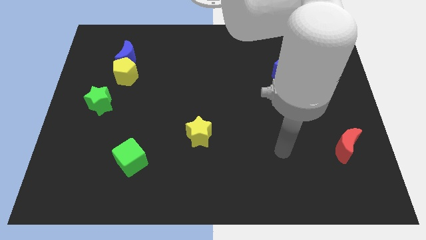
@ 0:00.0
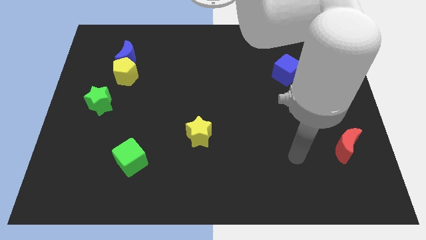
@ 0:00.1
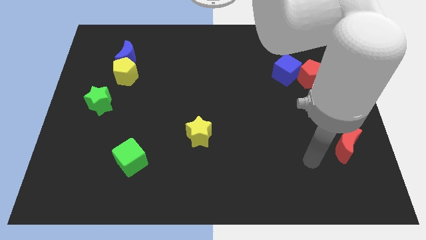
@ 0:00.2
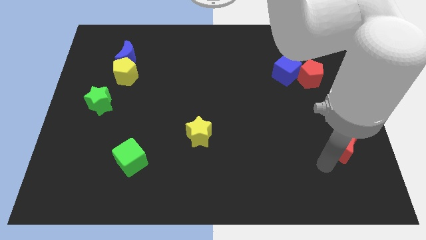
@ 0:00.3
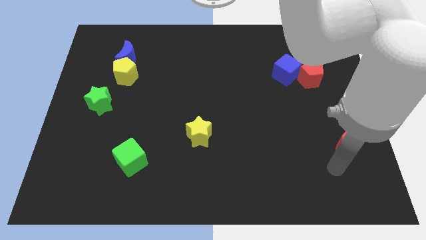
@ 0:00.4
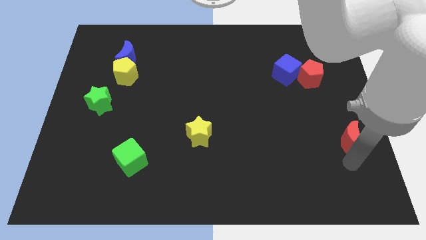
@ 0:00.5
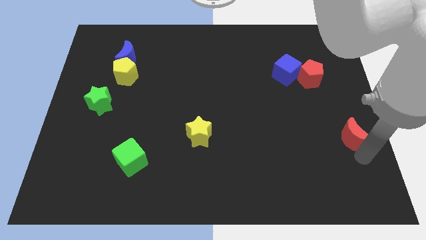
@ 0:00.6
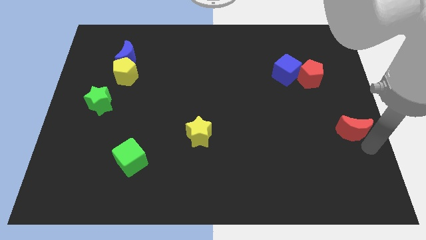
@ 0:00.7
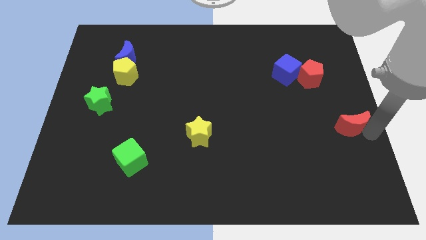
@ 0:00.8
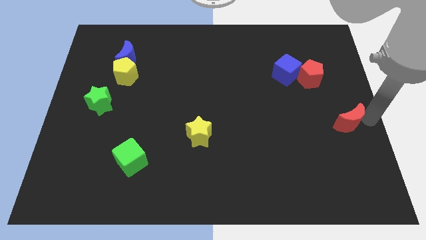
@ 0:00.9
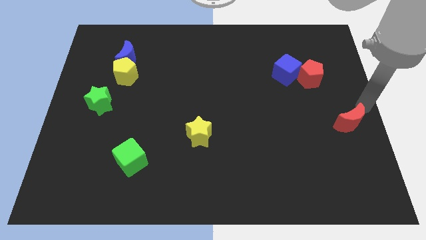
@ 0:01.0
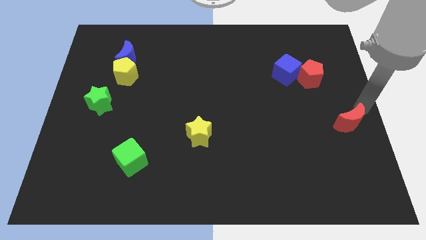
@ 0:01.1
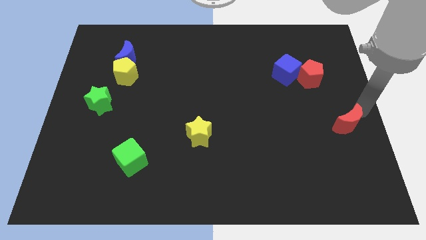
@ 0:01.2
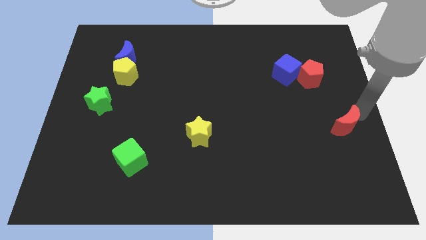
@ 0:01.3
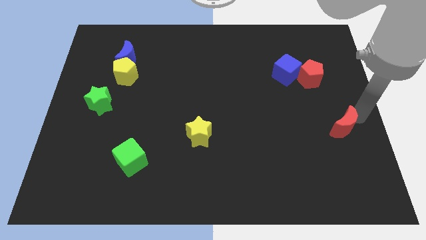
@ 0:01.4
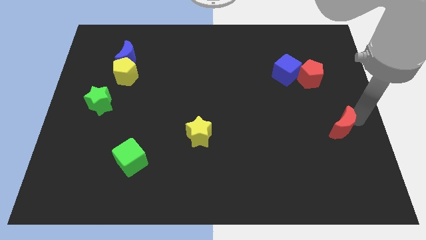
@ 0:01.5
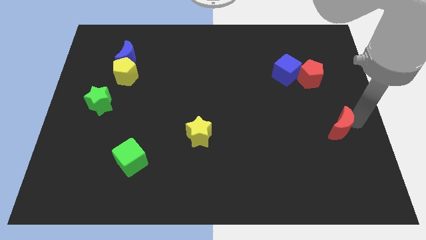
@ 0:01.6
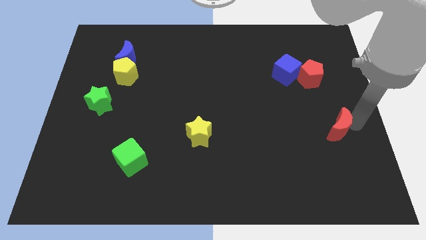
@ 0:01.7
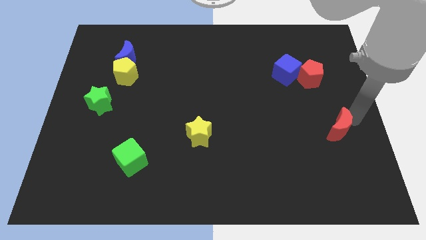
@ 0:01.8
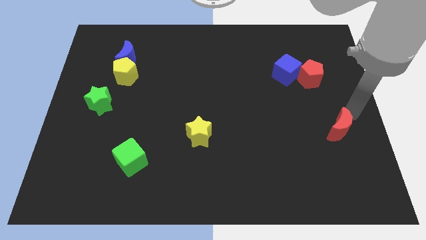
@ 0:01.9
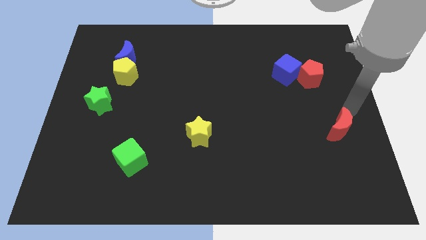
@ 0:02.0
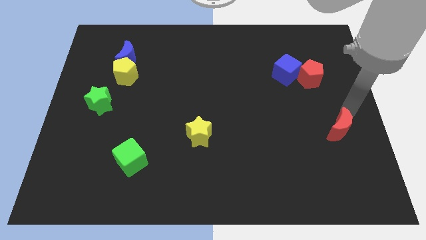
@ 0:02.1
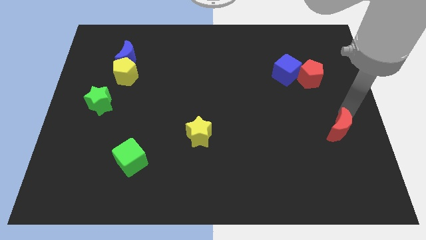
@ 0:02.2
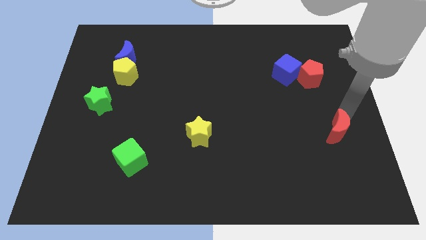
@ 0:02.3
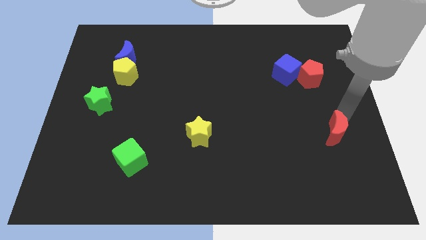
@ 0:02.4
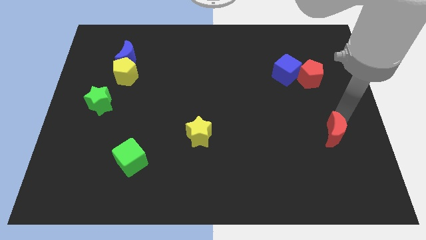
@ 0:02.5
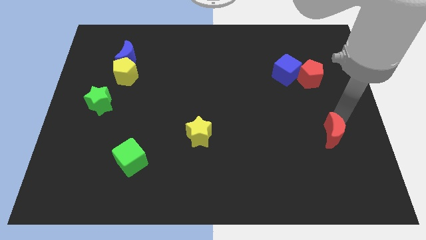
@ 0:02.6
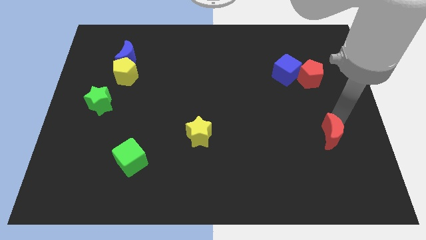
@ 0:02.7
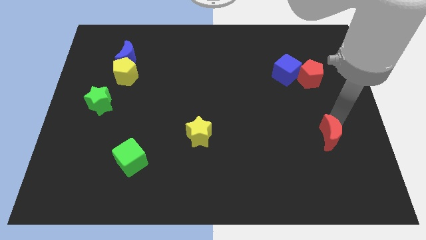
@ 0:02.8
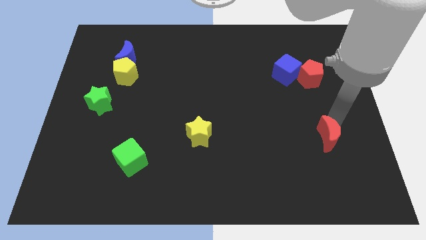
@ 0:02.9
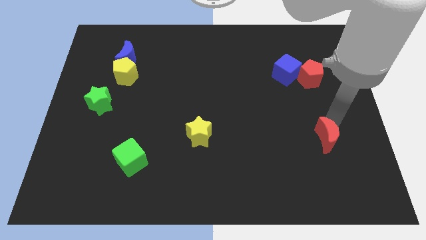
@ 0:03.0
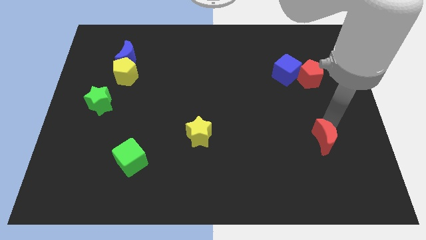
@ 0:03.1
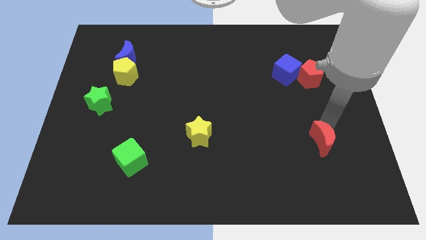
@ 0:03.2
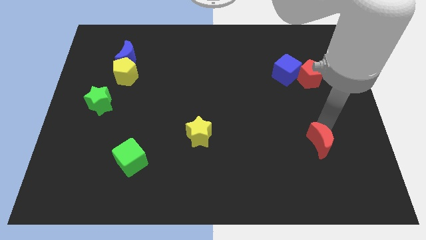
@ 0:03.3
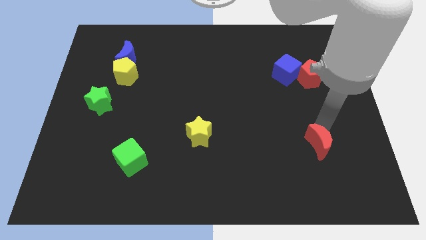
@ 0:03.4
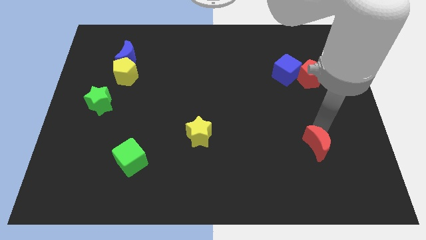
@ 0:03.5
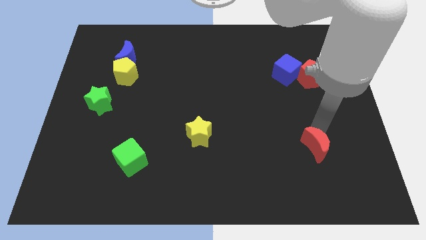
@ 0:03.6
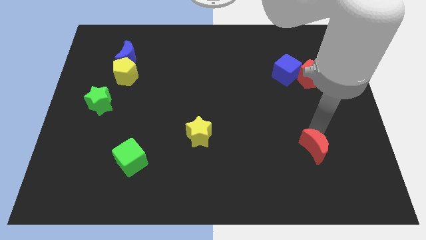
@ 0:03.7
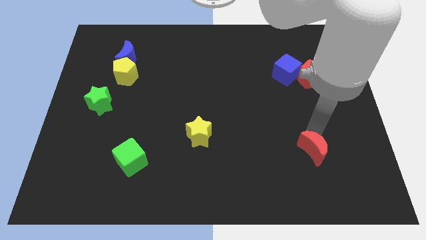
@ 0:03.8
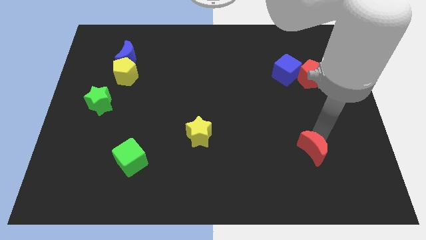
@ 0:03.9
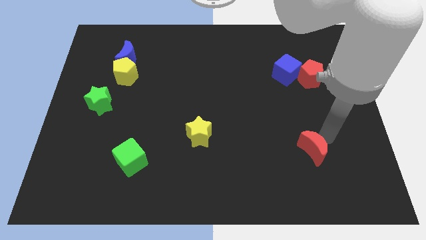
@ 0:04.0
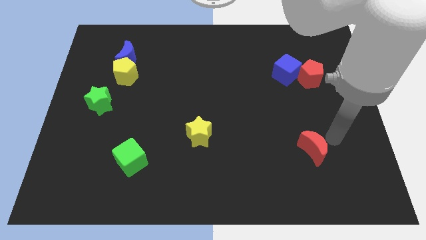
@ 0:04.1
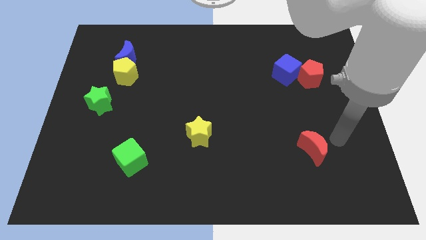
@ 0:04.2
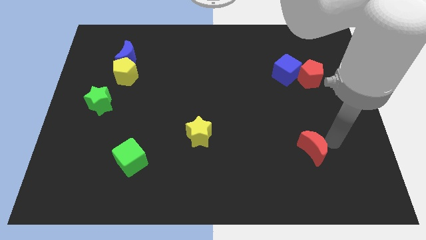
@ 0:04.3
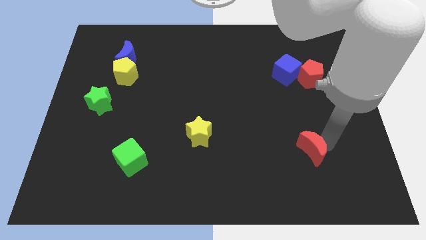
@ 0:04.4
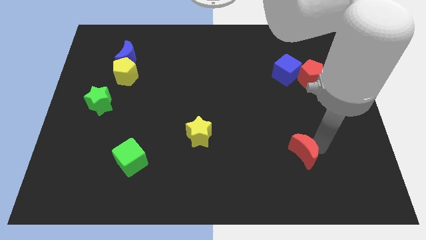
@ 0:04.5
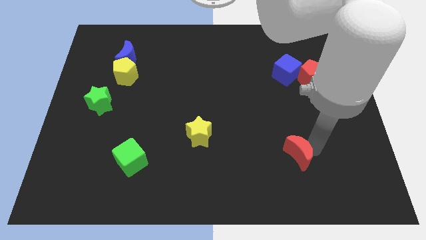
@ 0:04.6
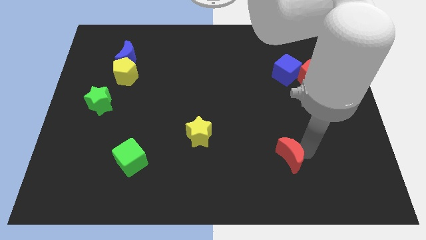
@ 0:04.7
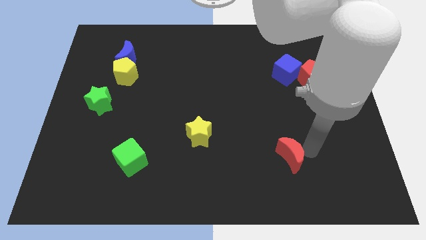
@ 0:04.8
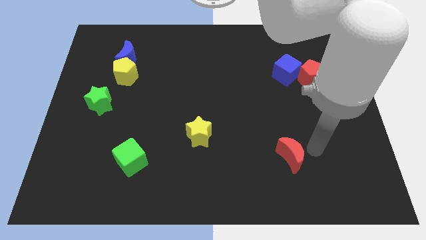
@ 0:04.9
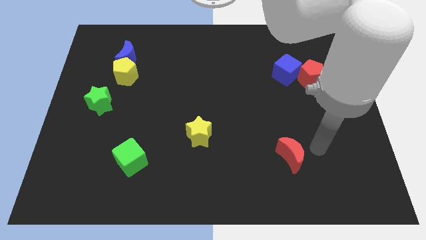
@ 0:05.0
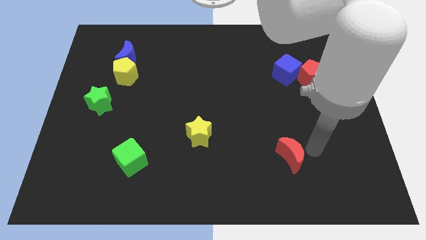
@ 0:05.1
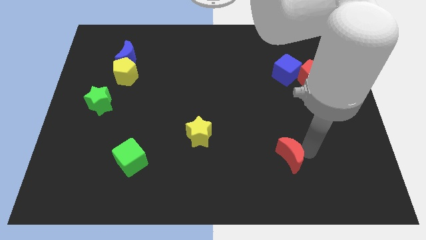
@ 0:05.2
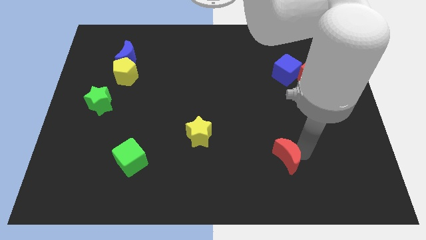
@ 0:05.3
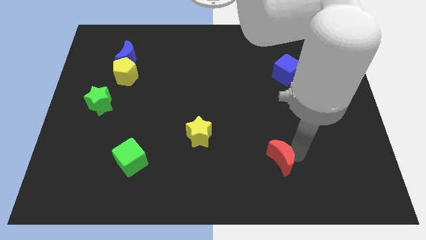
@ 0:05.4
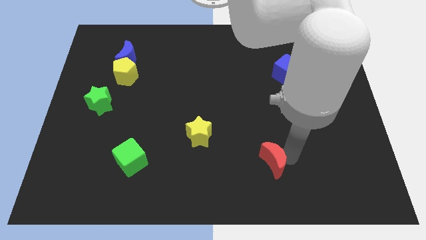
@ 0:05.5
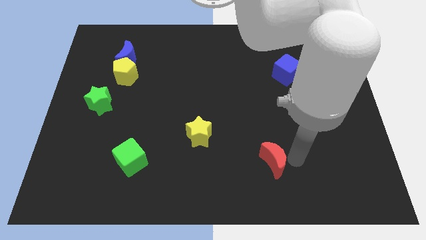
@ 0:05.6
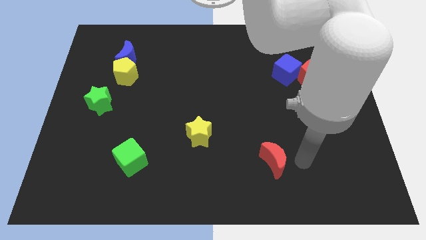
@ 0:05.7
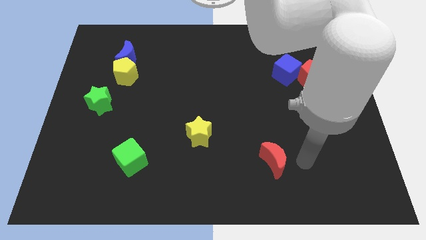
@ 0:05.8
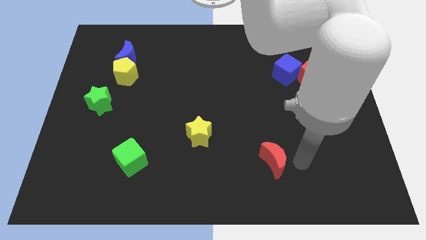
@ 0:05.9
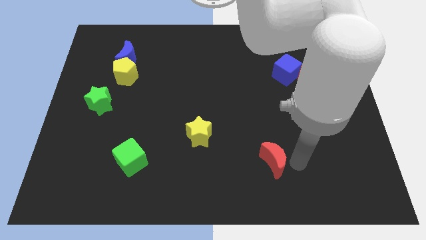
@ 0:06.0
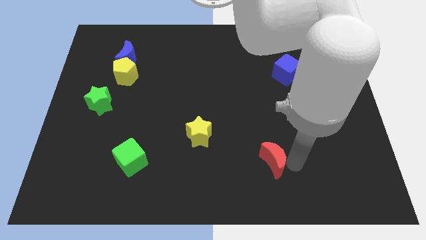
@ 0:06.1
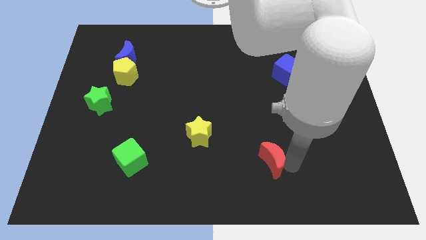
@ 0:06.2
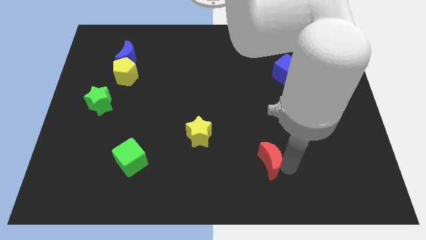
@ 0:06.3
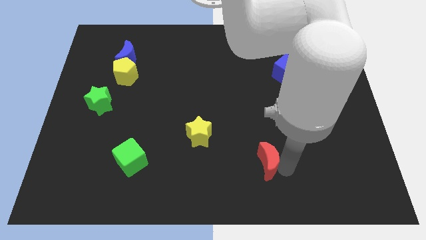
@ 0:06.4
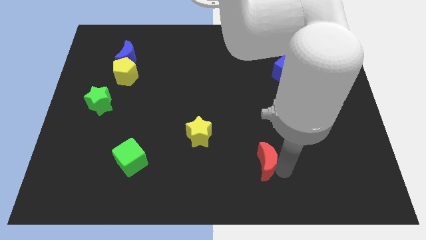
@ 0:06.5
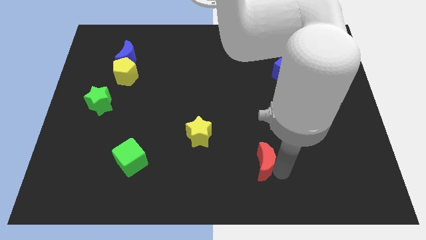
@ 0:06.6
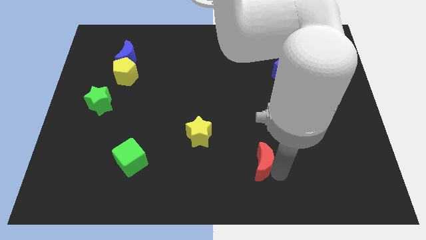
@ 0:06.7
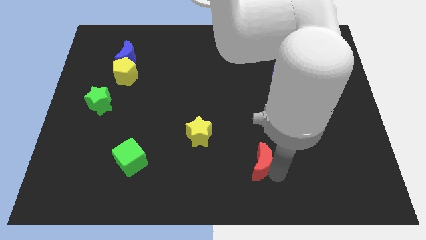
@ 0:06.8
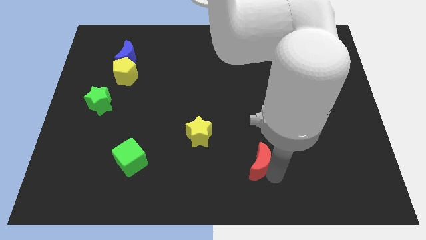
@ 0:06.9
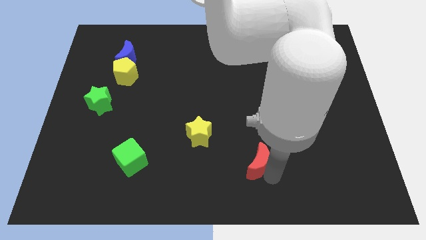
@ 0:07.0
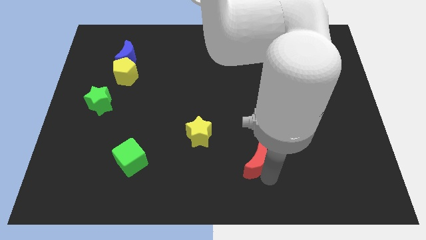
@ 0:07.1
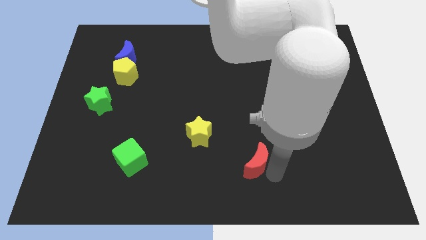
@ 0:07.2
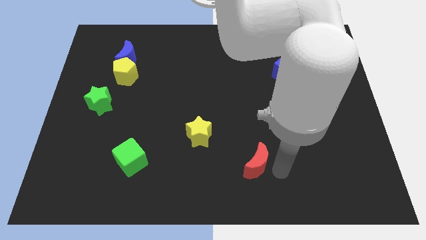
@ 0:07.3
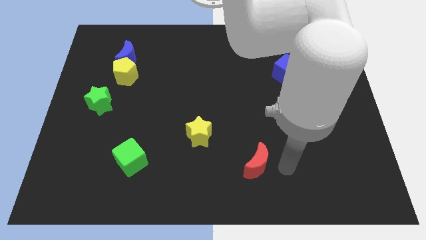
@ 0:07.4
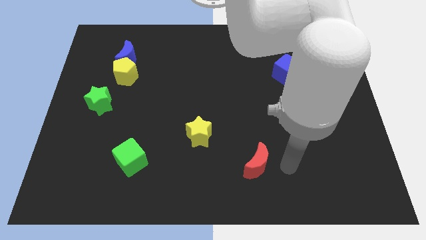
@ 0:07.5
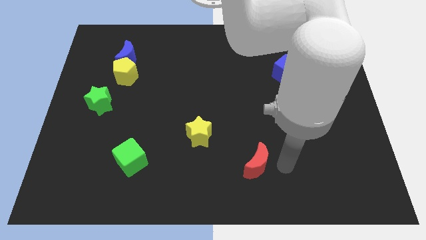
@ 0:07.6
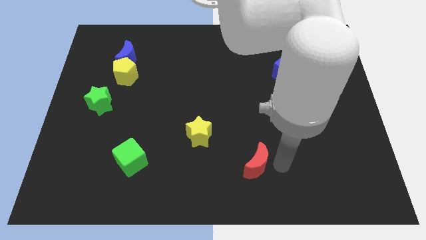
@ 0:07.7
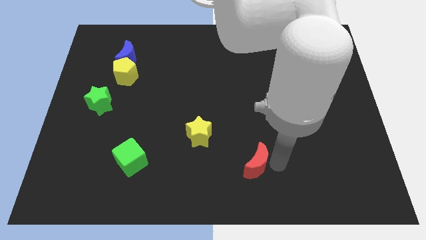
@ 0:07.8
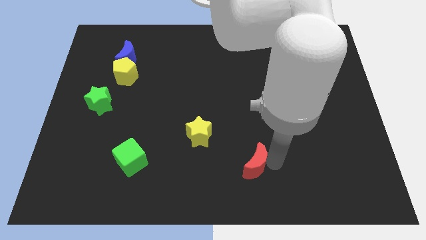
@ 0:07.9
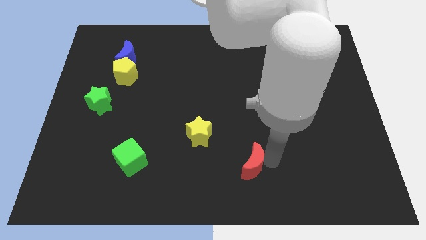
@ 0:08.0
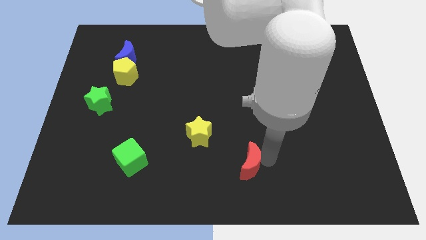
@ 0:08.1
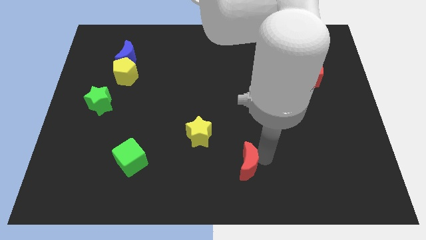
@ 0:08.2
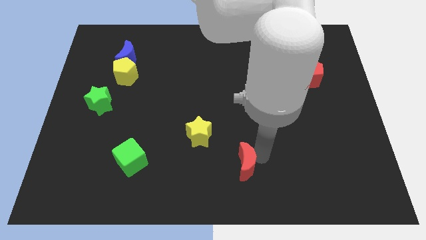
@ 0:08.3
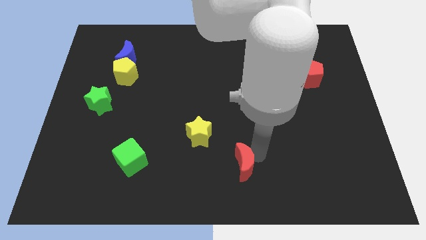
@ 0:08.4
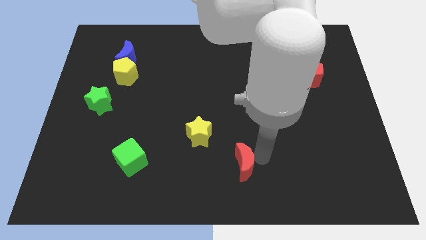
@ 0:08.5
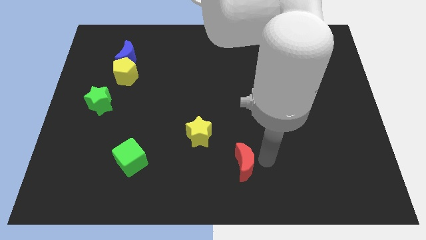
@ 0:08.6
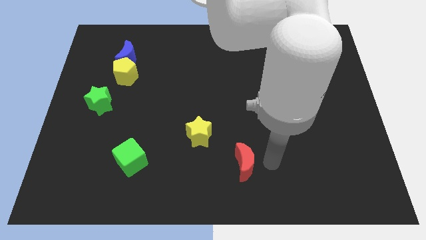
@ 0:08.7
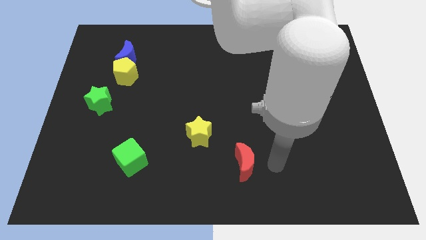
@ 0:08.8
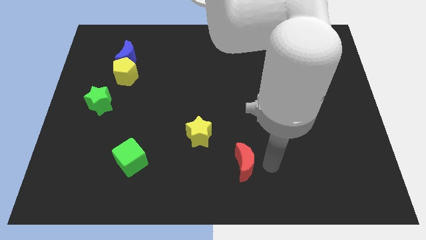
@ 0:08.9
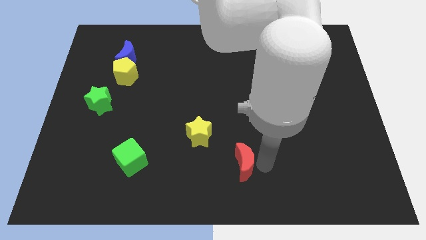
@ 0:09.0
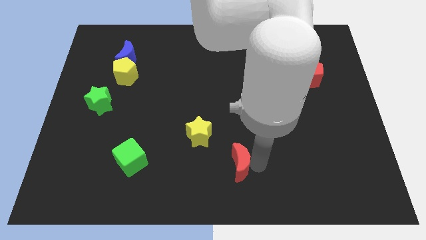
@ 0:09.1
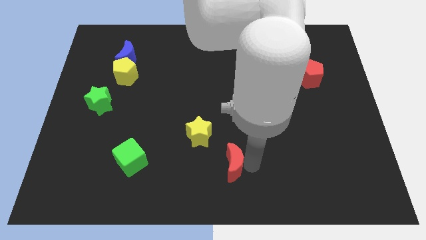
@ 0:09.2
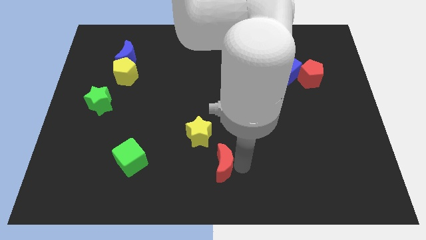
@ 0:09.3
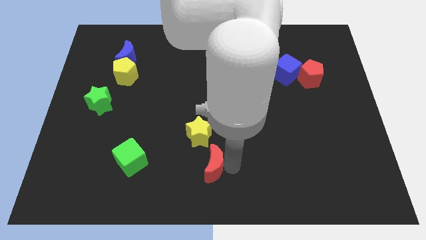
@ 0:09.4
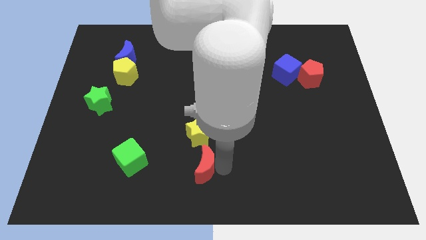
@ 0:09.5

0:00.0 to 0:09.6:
put the red moon right of the green cube
